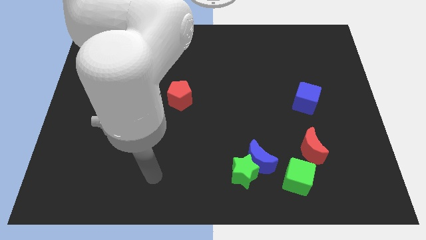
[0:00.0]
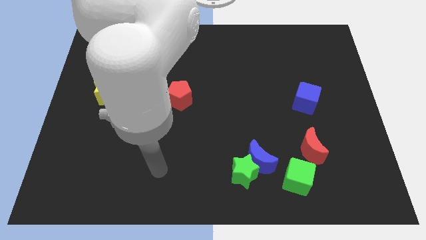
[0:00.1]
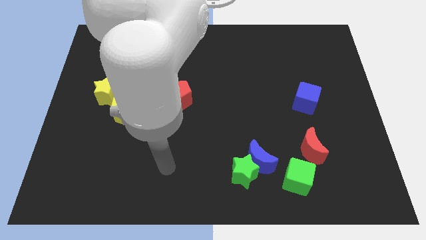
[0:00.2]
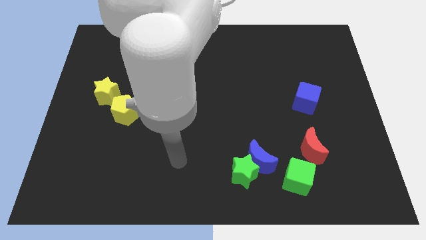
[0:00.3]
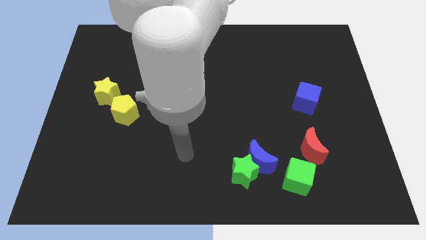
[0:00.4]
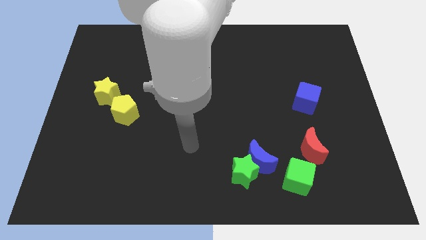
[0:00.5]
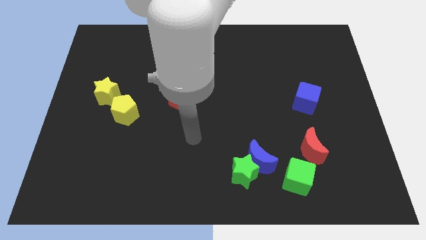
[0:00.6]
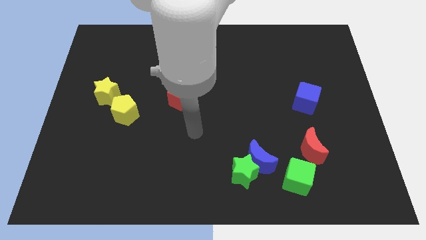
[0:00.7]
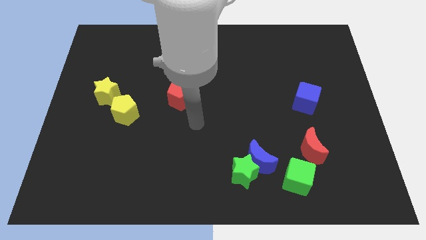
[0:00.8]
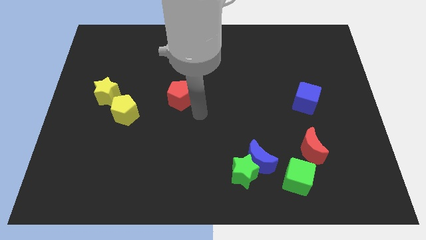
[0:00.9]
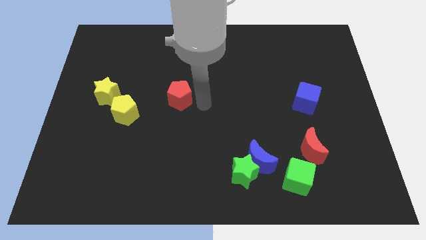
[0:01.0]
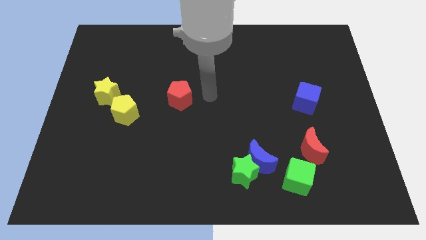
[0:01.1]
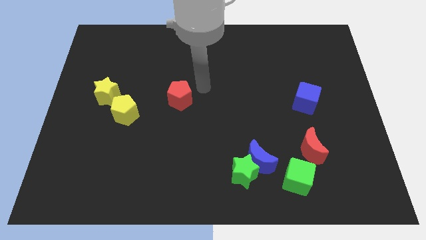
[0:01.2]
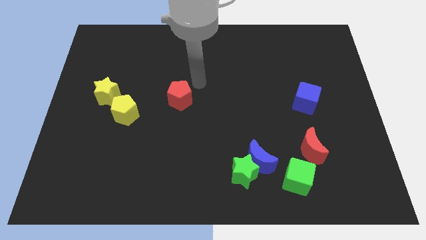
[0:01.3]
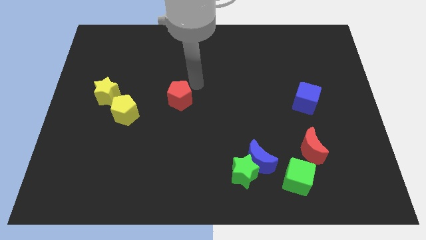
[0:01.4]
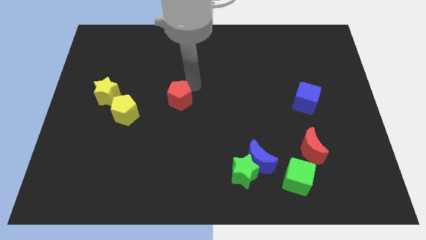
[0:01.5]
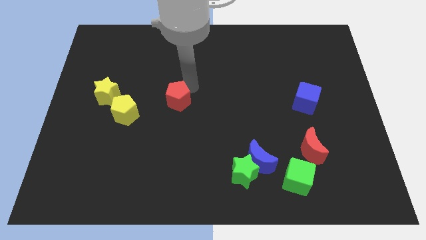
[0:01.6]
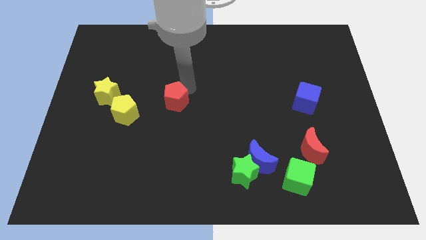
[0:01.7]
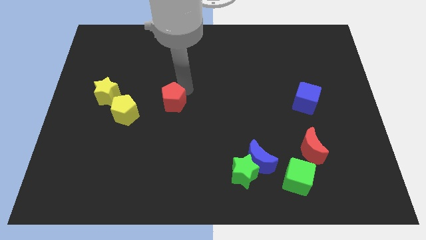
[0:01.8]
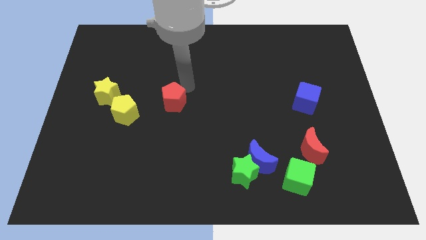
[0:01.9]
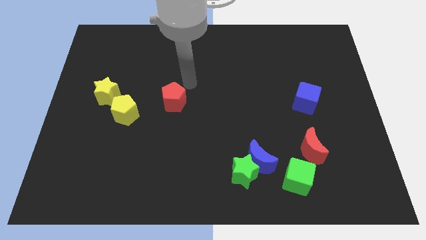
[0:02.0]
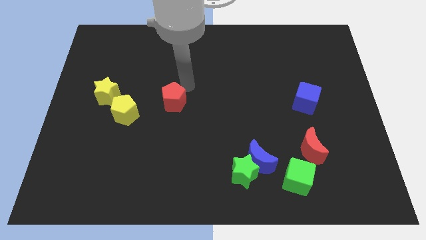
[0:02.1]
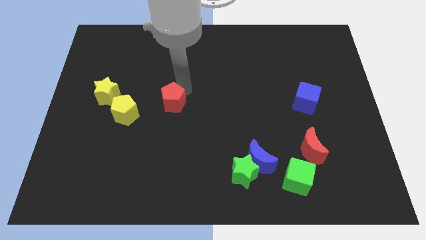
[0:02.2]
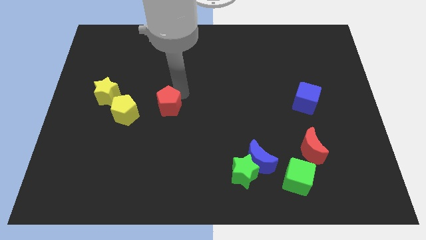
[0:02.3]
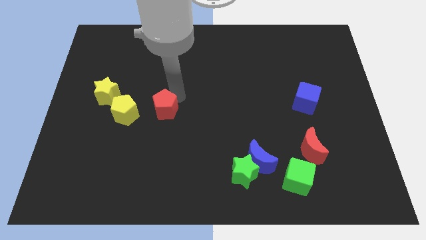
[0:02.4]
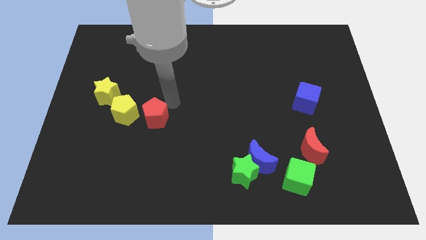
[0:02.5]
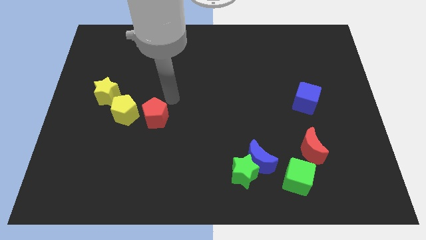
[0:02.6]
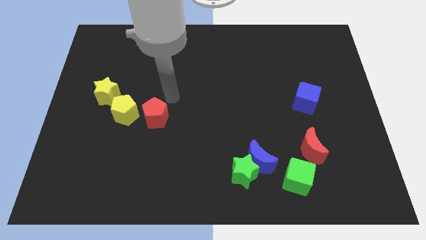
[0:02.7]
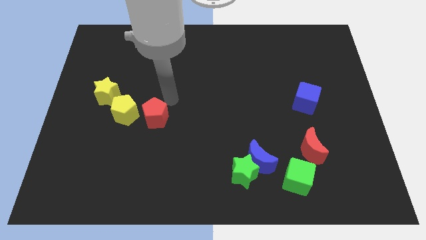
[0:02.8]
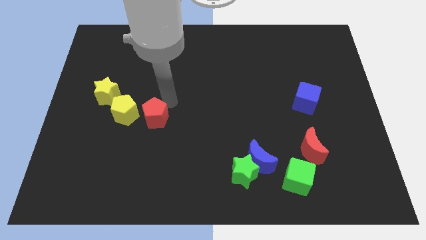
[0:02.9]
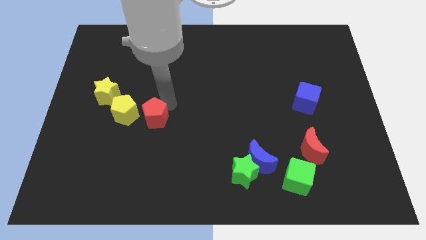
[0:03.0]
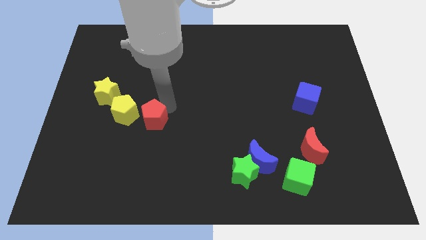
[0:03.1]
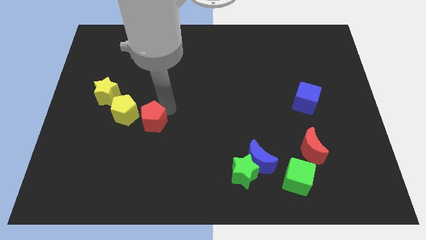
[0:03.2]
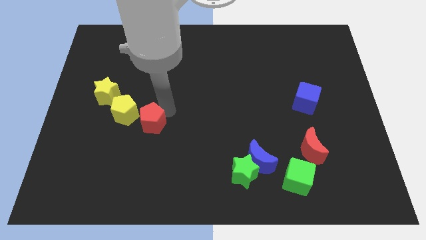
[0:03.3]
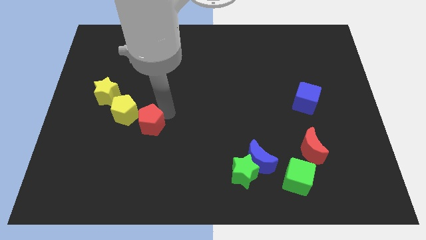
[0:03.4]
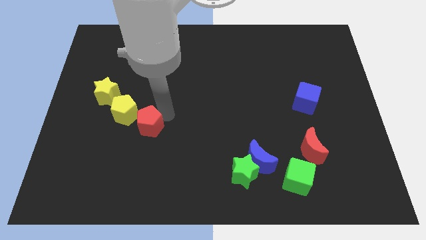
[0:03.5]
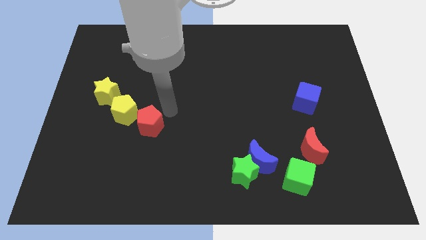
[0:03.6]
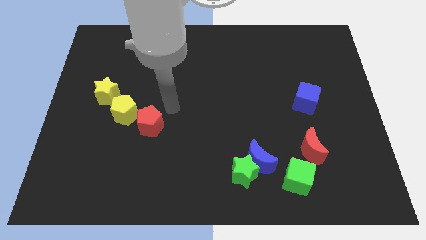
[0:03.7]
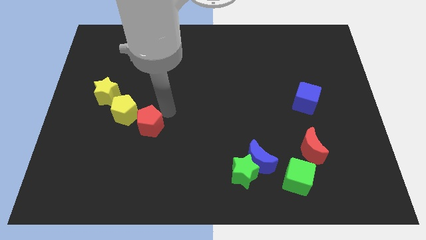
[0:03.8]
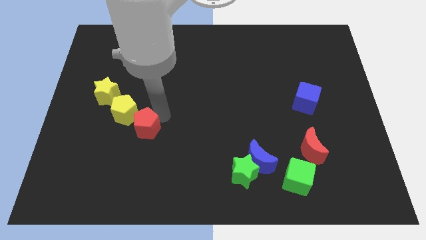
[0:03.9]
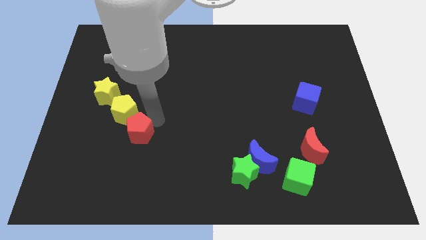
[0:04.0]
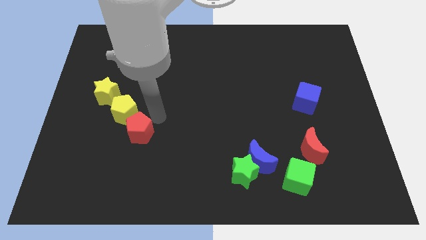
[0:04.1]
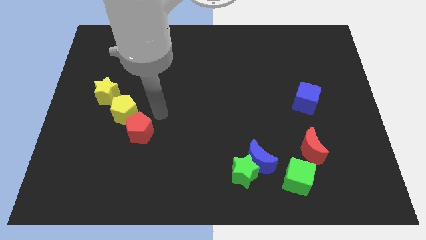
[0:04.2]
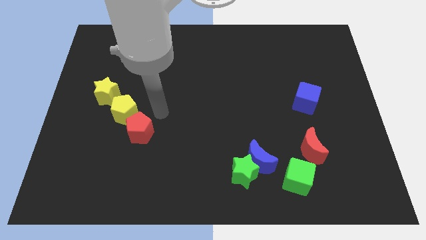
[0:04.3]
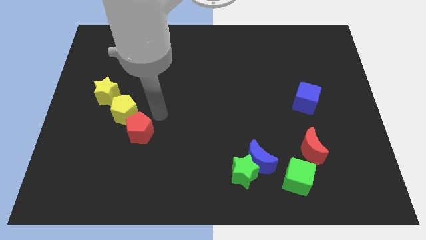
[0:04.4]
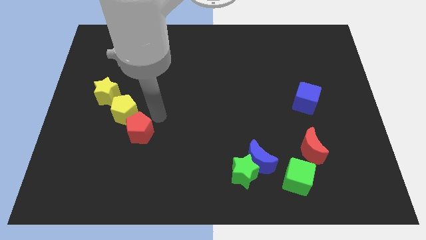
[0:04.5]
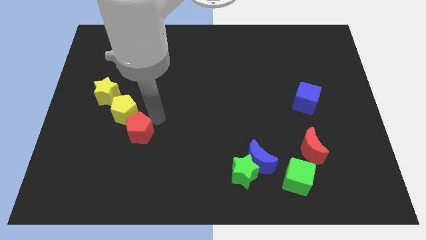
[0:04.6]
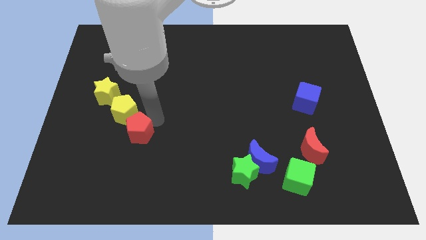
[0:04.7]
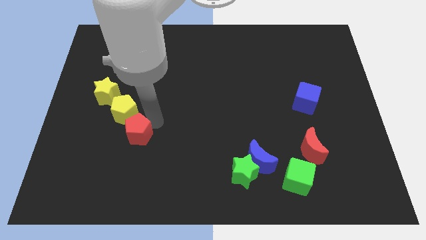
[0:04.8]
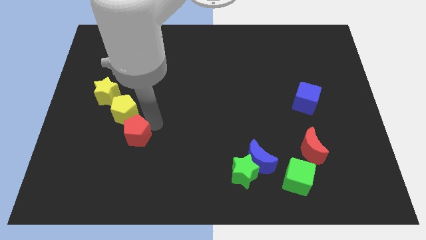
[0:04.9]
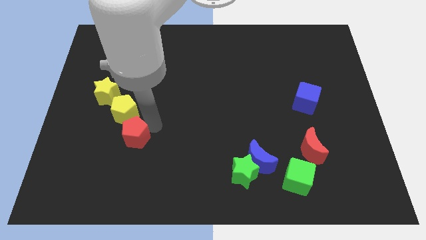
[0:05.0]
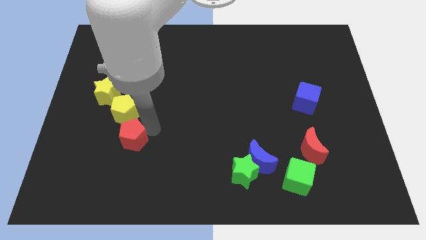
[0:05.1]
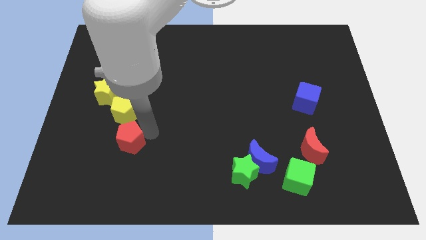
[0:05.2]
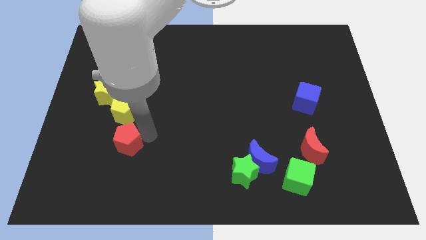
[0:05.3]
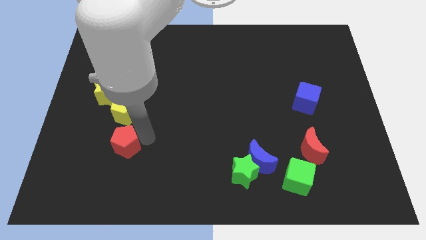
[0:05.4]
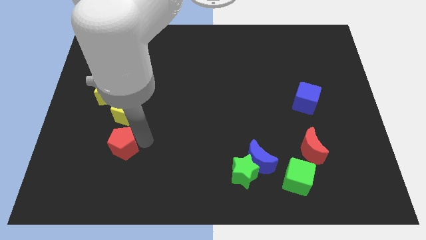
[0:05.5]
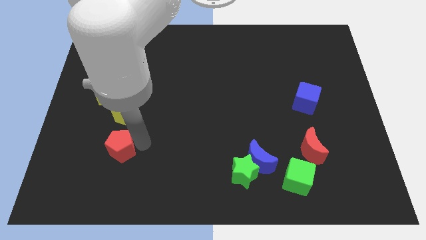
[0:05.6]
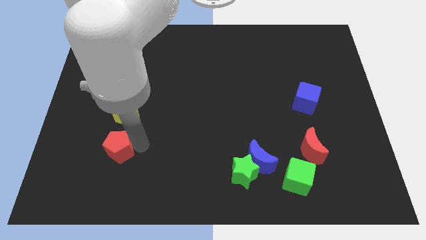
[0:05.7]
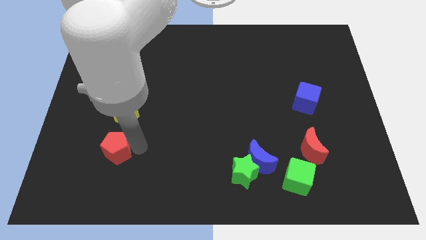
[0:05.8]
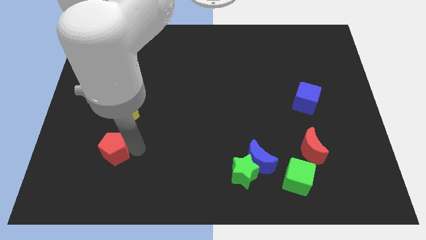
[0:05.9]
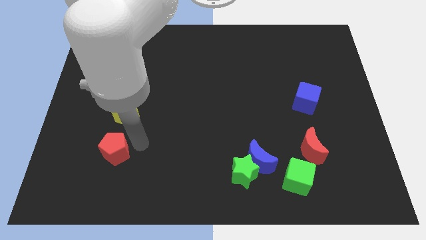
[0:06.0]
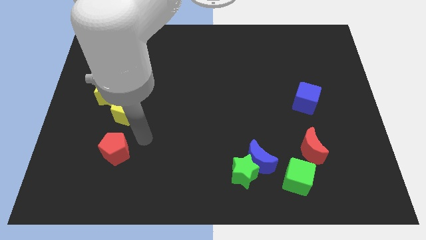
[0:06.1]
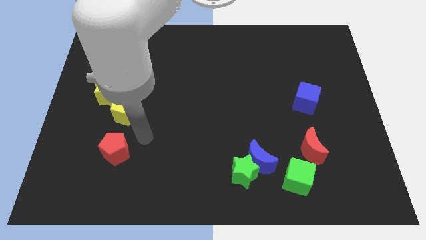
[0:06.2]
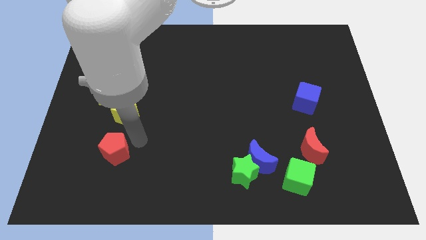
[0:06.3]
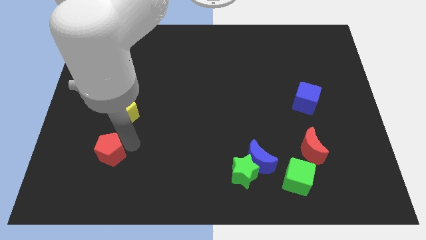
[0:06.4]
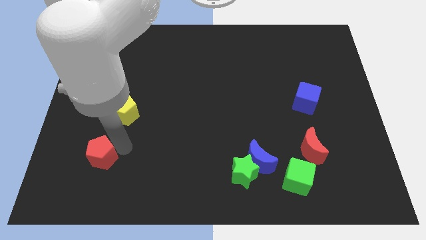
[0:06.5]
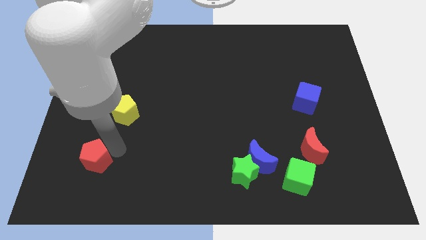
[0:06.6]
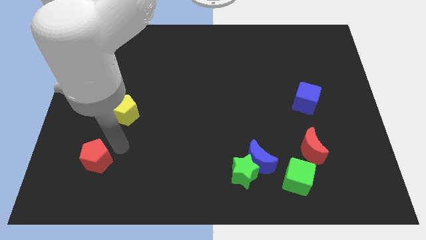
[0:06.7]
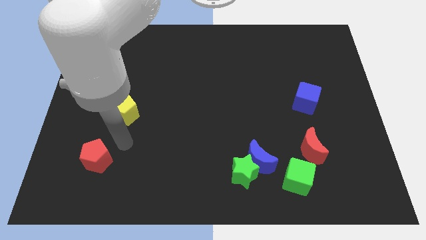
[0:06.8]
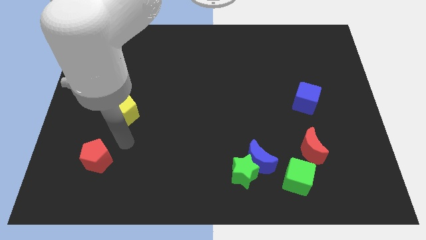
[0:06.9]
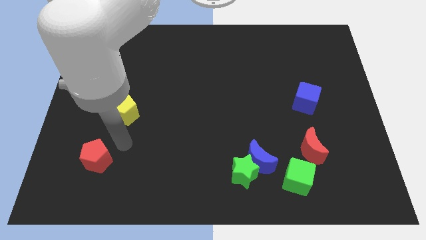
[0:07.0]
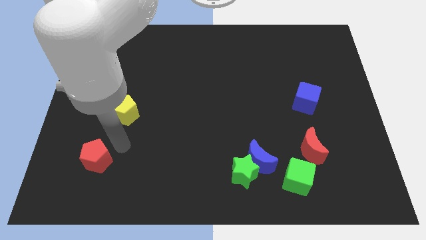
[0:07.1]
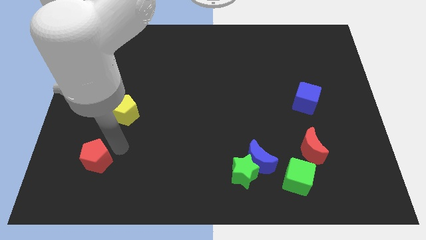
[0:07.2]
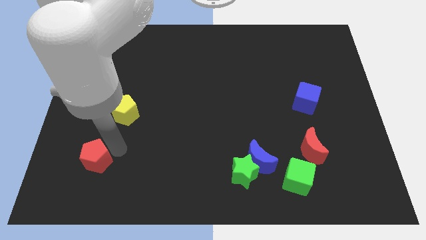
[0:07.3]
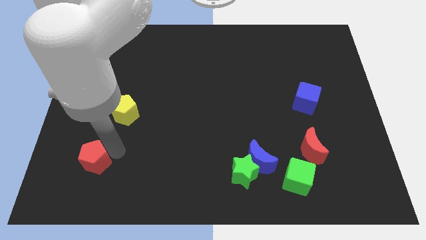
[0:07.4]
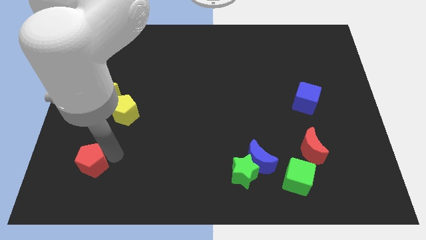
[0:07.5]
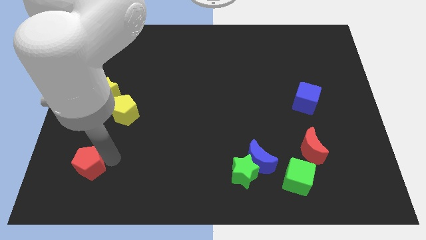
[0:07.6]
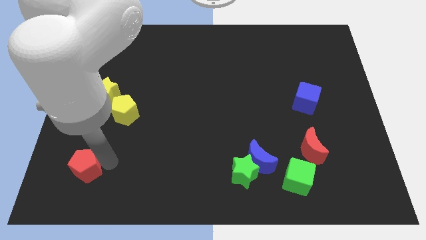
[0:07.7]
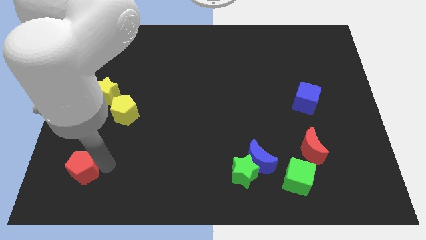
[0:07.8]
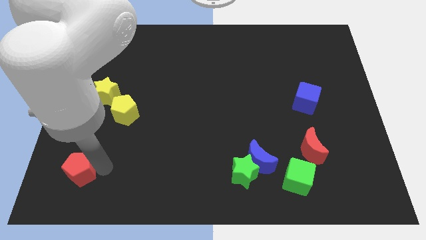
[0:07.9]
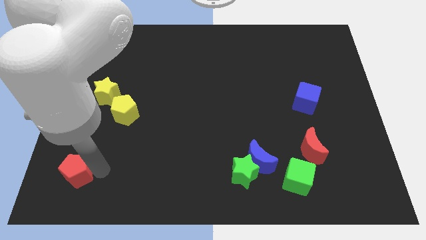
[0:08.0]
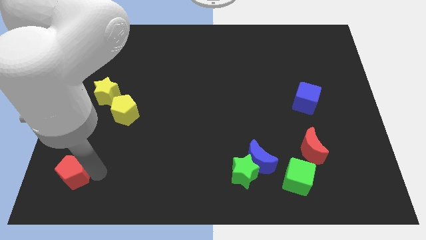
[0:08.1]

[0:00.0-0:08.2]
push the red pentagon to the bottom left corner
